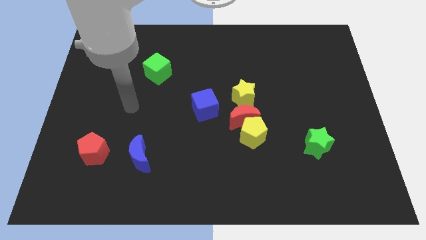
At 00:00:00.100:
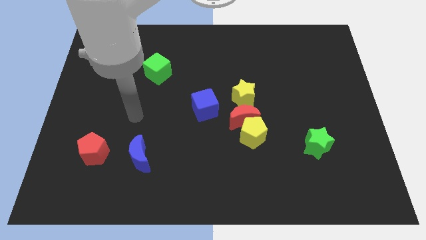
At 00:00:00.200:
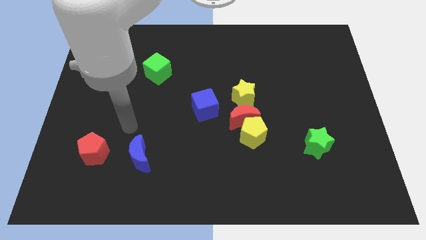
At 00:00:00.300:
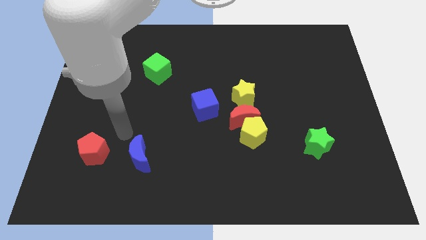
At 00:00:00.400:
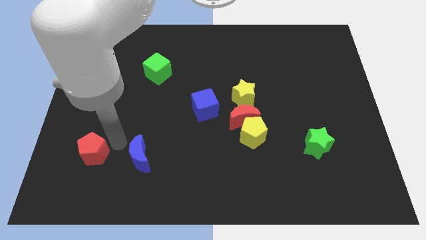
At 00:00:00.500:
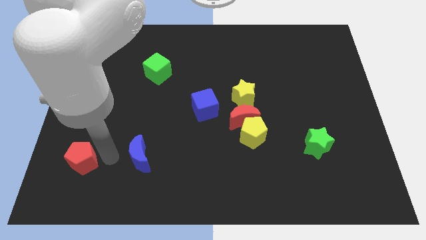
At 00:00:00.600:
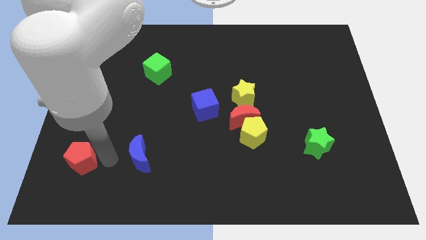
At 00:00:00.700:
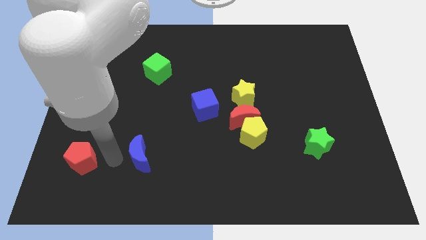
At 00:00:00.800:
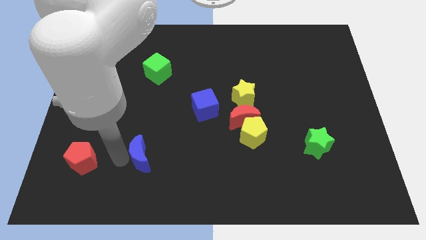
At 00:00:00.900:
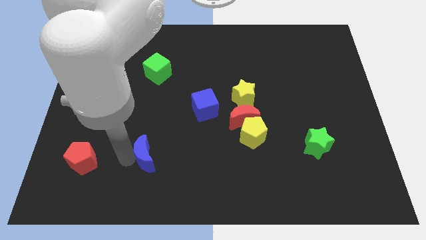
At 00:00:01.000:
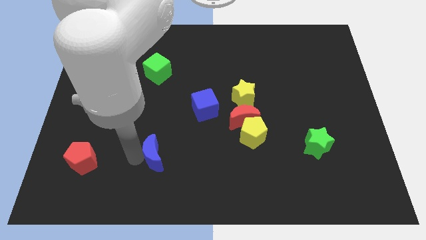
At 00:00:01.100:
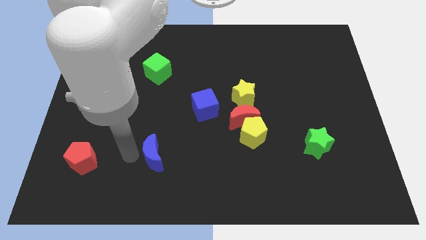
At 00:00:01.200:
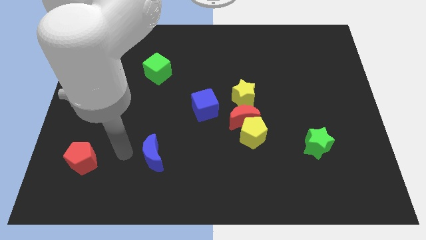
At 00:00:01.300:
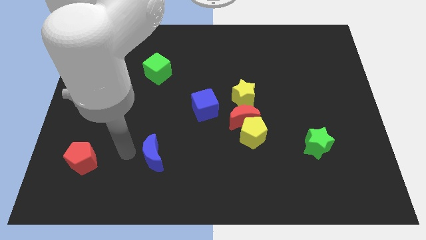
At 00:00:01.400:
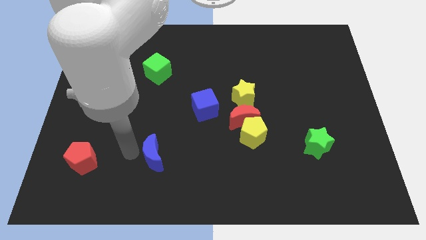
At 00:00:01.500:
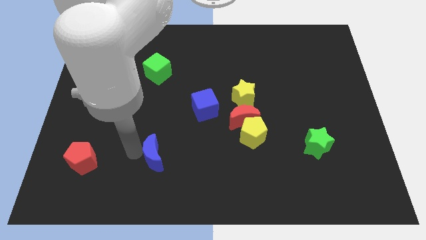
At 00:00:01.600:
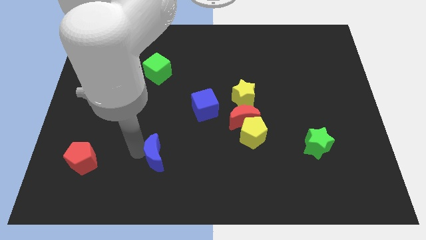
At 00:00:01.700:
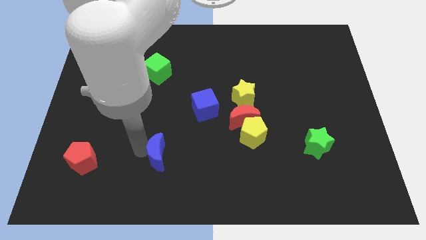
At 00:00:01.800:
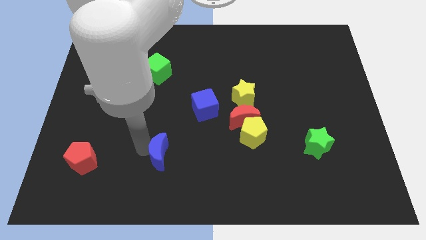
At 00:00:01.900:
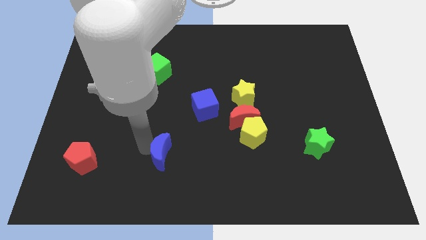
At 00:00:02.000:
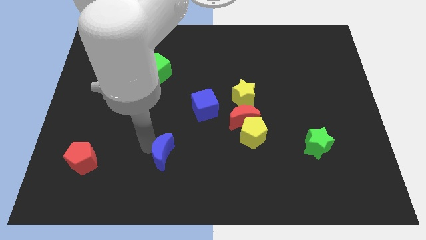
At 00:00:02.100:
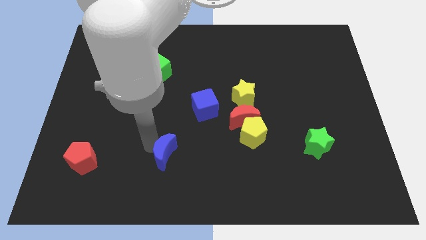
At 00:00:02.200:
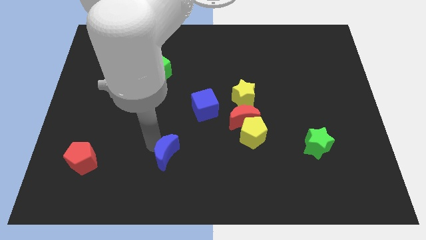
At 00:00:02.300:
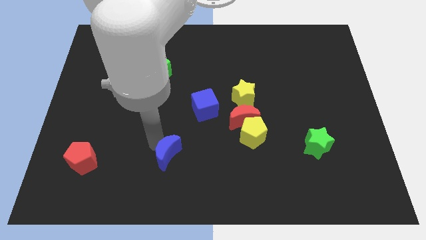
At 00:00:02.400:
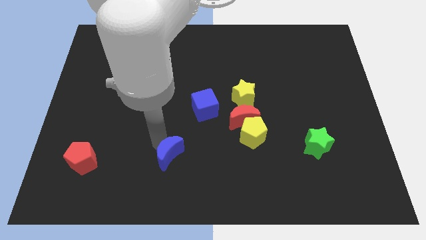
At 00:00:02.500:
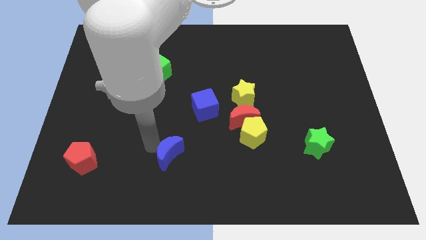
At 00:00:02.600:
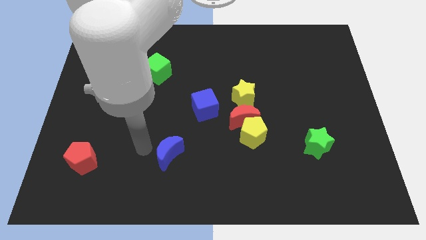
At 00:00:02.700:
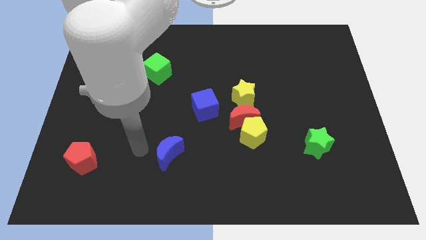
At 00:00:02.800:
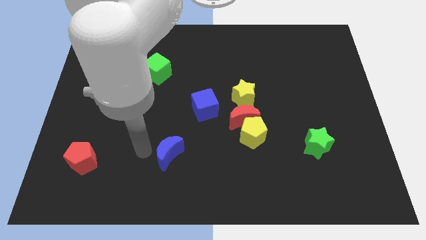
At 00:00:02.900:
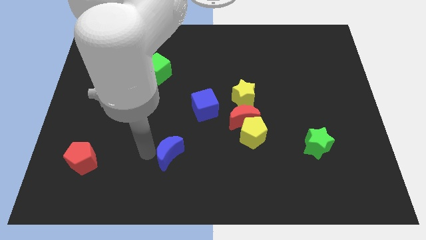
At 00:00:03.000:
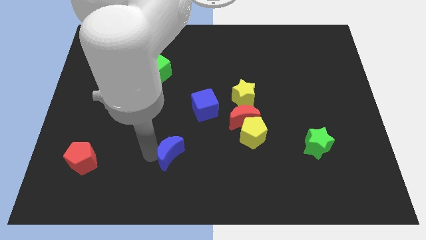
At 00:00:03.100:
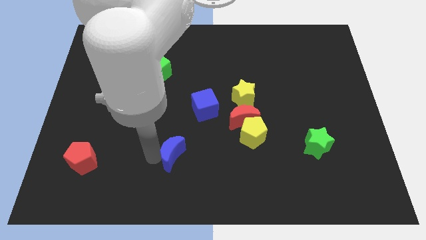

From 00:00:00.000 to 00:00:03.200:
slightly push the blue moon to the right

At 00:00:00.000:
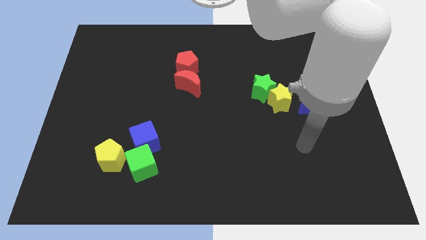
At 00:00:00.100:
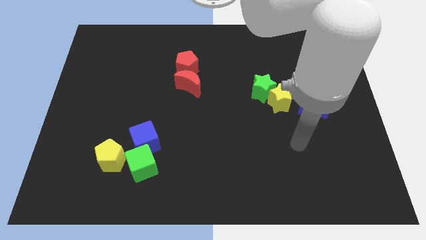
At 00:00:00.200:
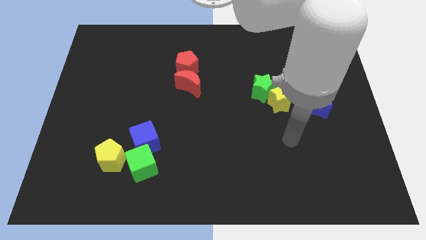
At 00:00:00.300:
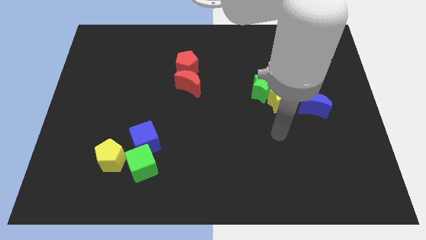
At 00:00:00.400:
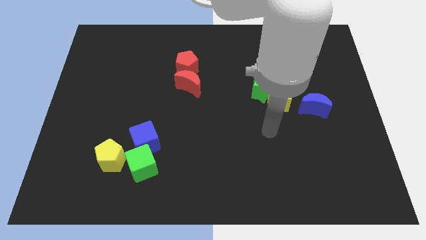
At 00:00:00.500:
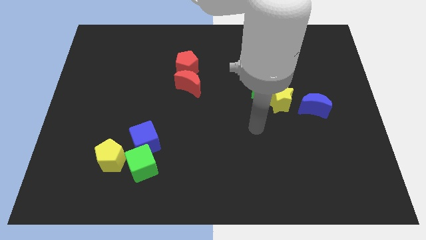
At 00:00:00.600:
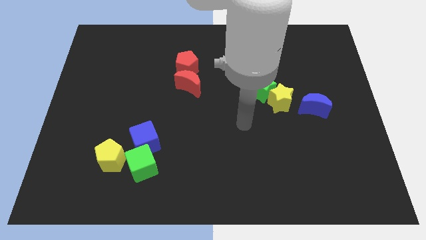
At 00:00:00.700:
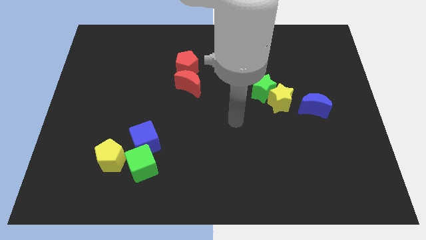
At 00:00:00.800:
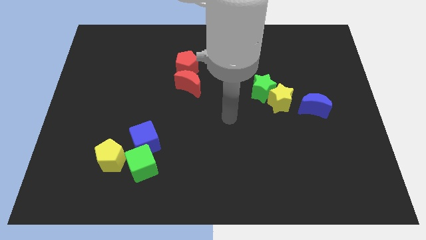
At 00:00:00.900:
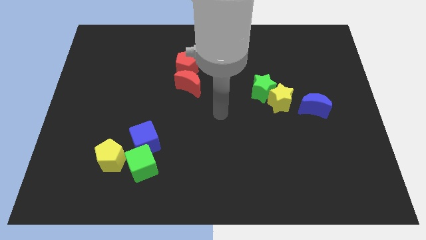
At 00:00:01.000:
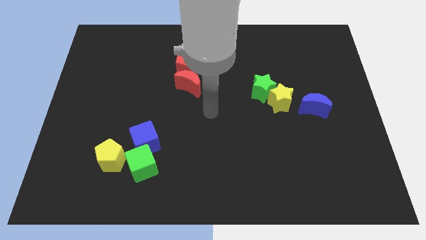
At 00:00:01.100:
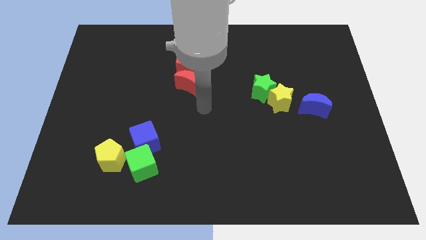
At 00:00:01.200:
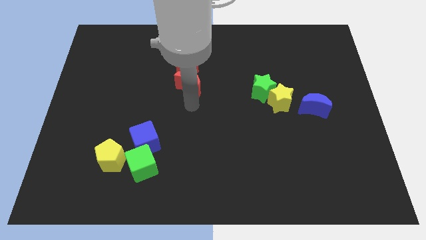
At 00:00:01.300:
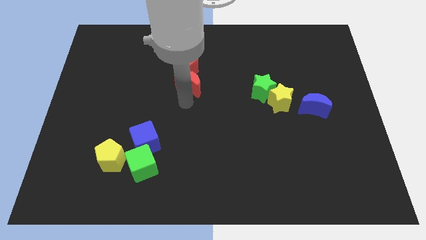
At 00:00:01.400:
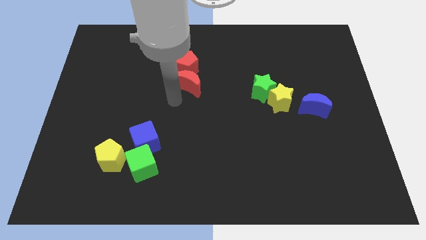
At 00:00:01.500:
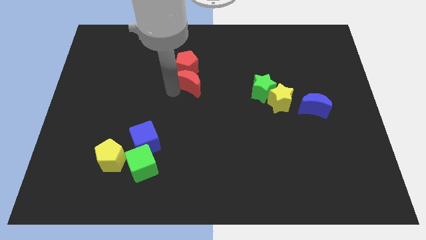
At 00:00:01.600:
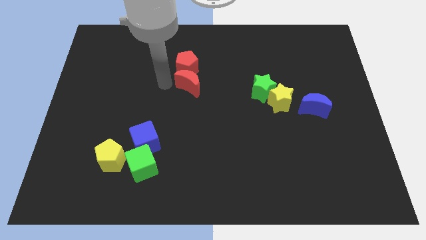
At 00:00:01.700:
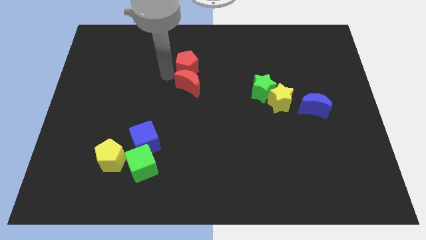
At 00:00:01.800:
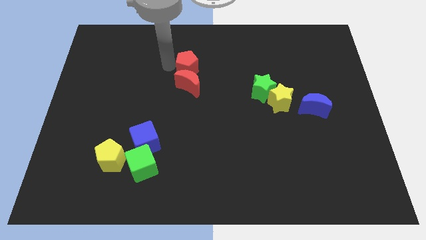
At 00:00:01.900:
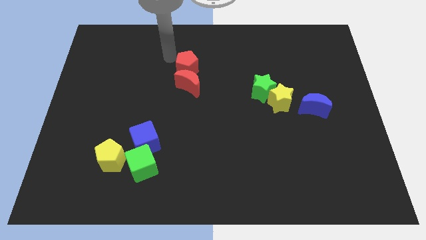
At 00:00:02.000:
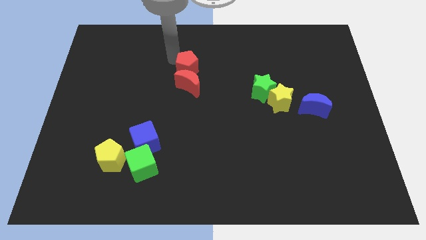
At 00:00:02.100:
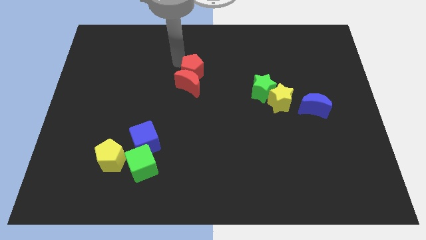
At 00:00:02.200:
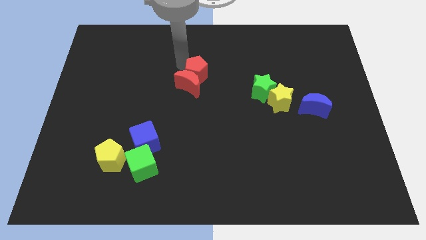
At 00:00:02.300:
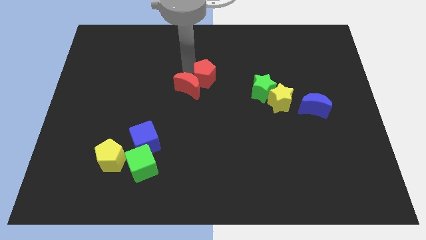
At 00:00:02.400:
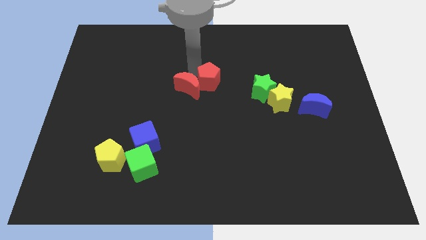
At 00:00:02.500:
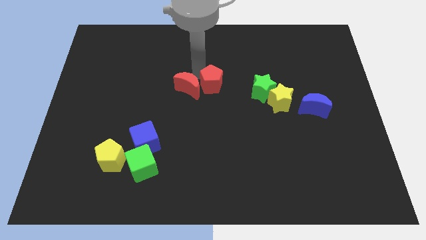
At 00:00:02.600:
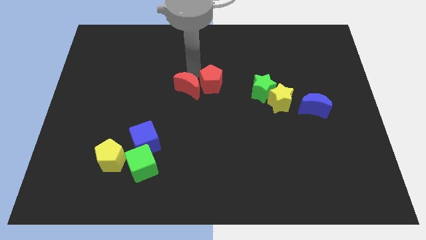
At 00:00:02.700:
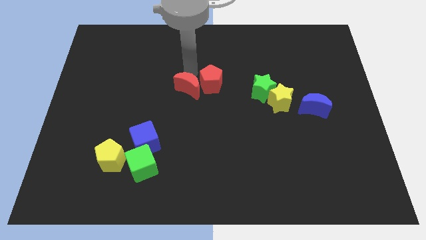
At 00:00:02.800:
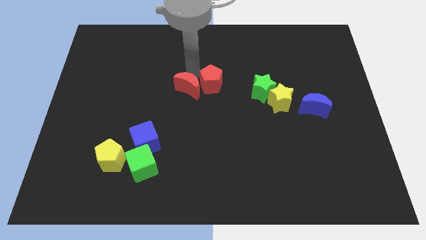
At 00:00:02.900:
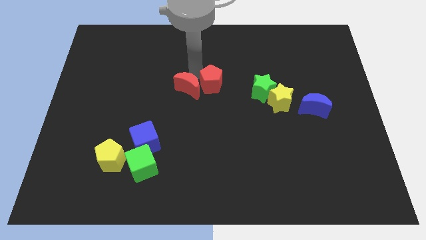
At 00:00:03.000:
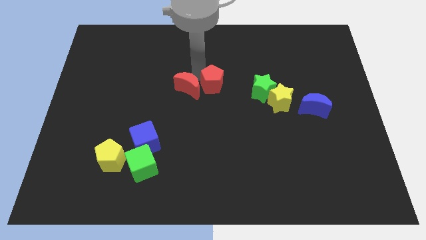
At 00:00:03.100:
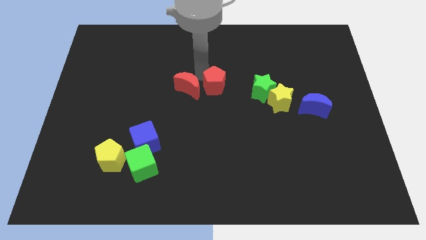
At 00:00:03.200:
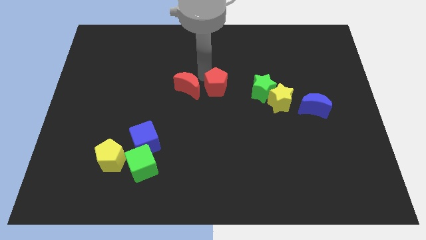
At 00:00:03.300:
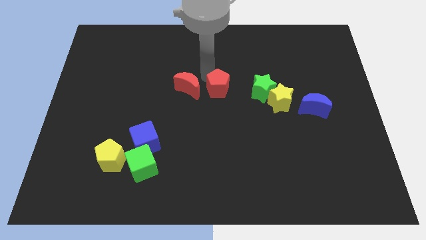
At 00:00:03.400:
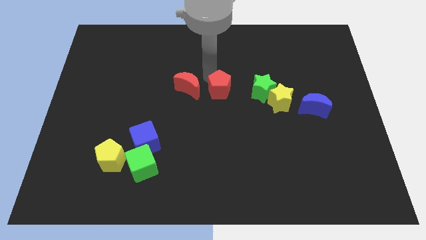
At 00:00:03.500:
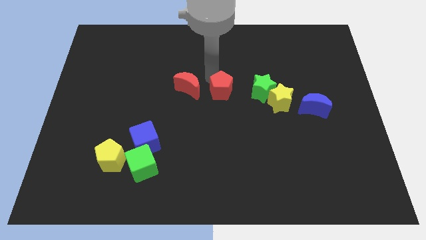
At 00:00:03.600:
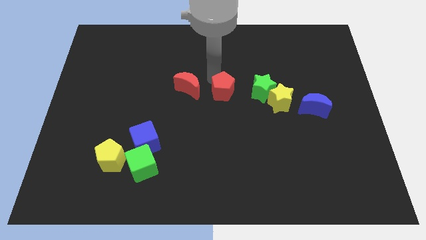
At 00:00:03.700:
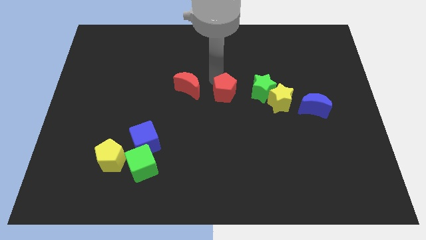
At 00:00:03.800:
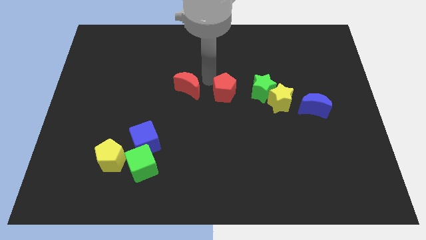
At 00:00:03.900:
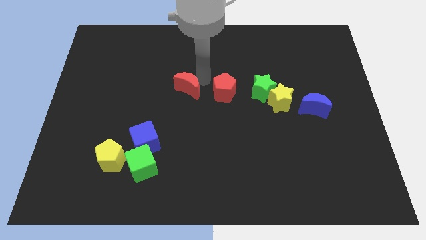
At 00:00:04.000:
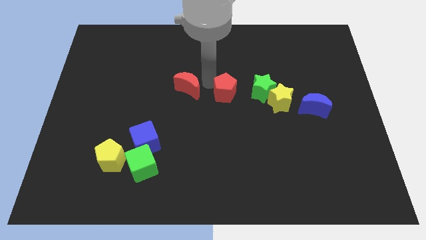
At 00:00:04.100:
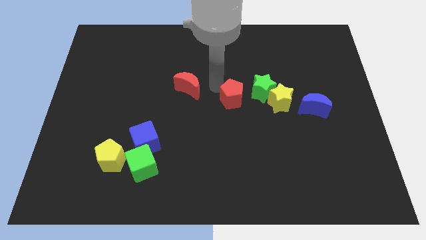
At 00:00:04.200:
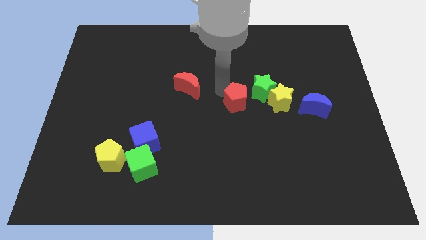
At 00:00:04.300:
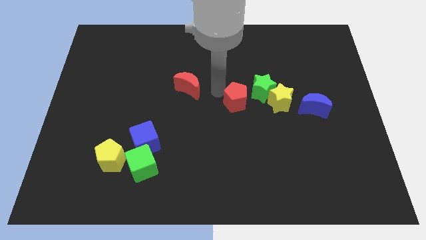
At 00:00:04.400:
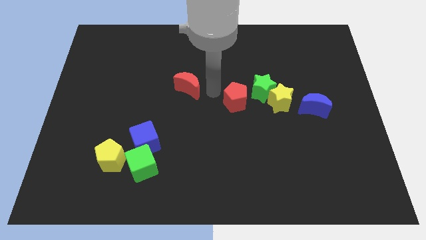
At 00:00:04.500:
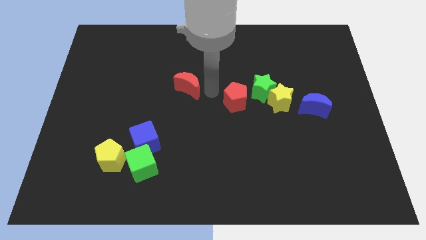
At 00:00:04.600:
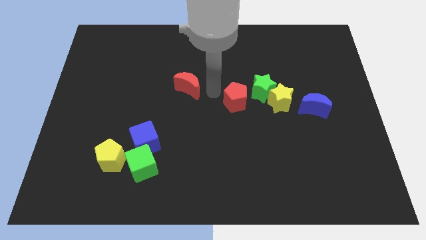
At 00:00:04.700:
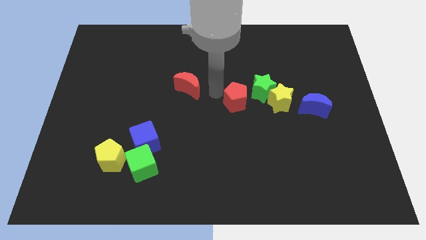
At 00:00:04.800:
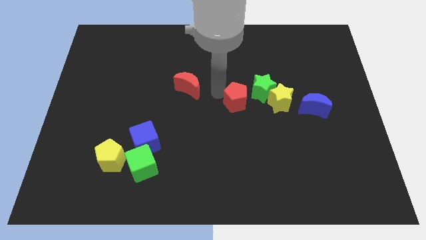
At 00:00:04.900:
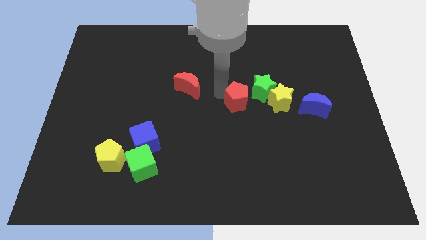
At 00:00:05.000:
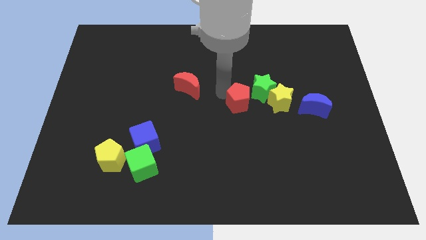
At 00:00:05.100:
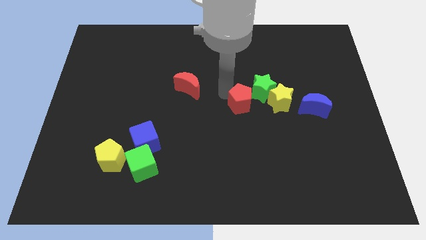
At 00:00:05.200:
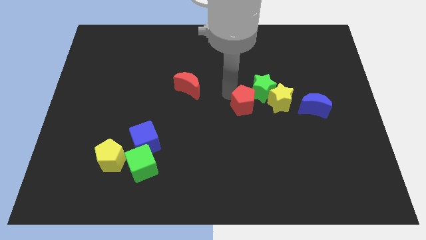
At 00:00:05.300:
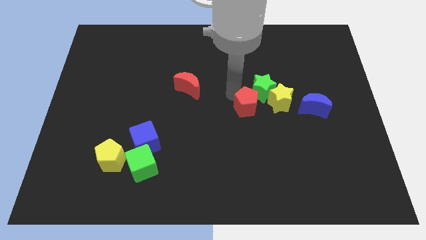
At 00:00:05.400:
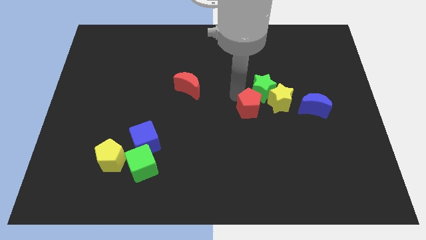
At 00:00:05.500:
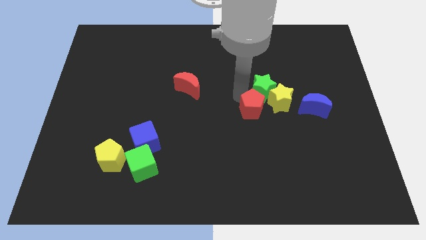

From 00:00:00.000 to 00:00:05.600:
push the red pentagon down and then to the right
